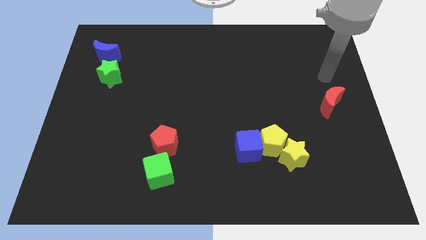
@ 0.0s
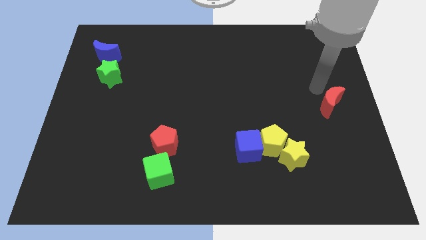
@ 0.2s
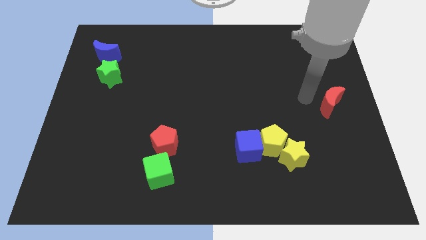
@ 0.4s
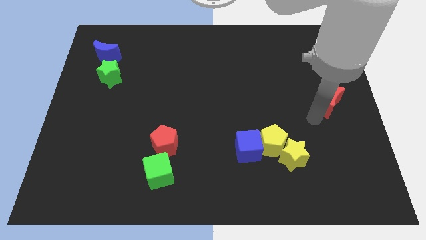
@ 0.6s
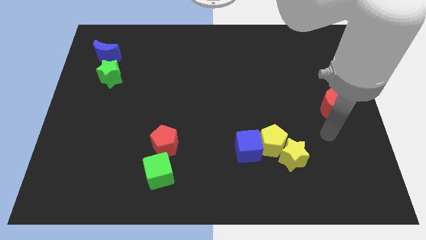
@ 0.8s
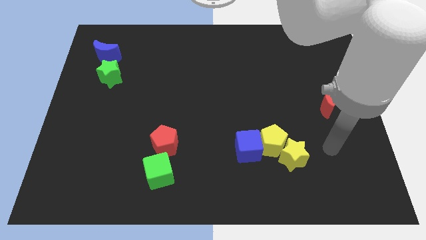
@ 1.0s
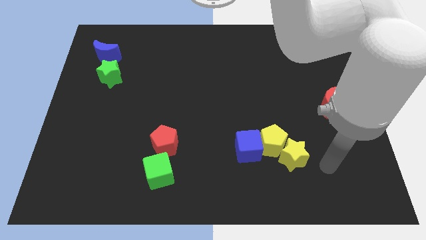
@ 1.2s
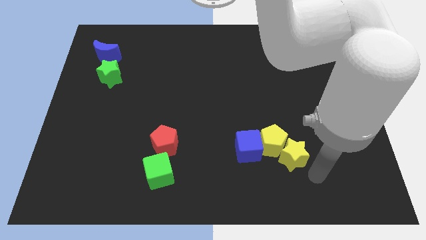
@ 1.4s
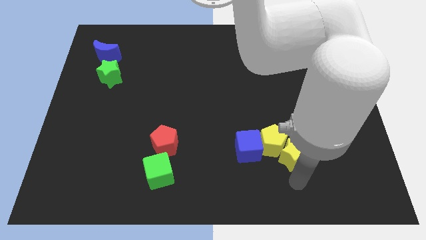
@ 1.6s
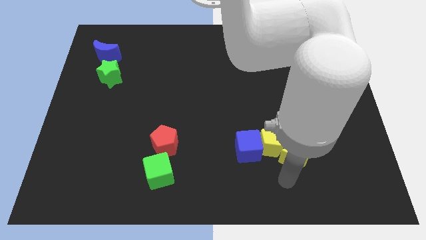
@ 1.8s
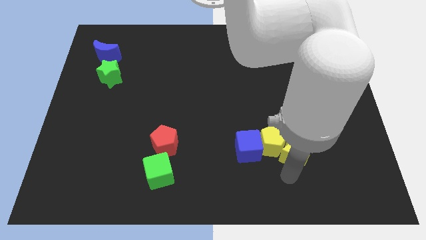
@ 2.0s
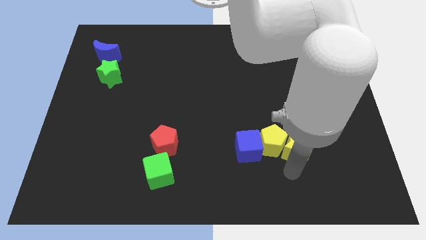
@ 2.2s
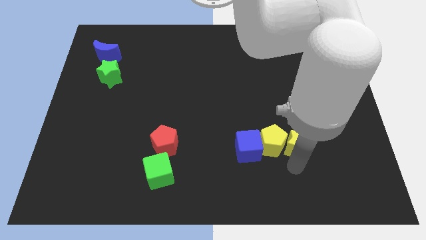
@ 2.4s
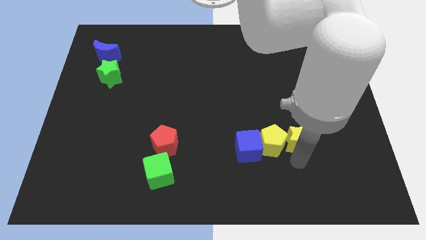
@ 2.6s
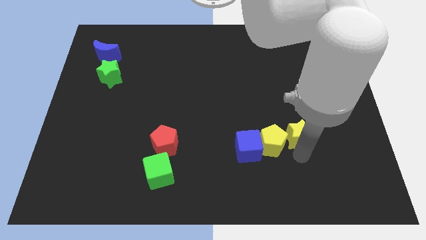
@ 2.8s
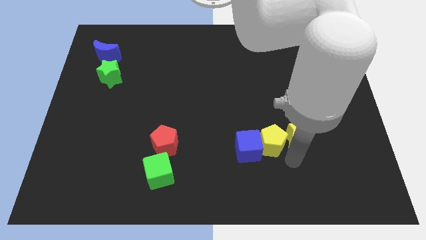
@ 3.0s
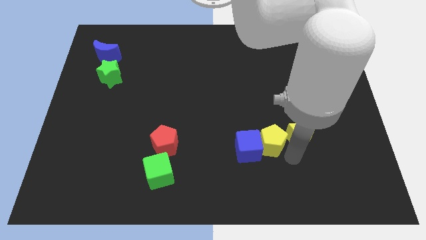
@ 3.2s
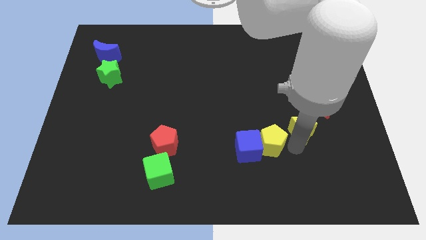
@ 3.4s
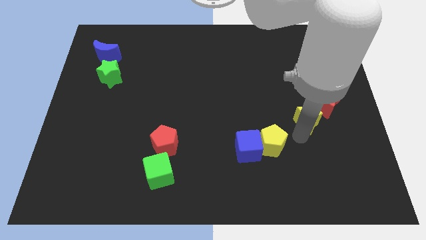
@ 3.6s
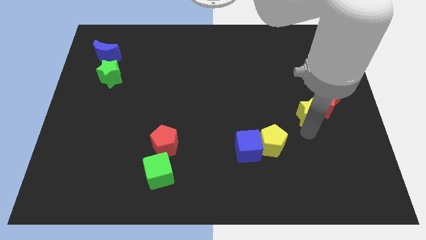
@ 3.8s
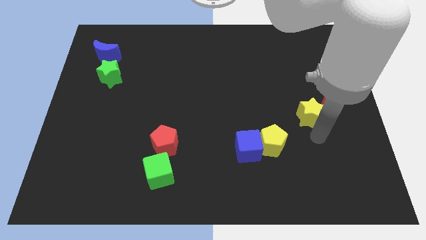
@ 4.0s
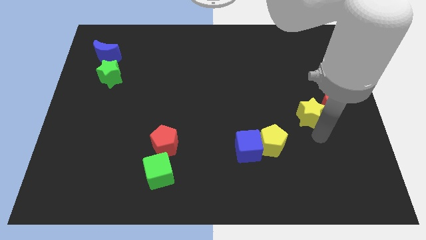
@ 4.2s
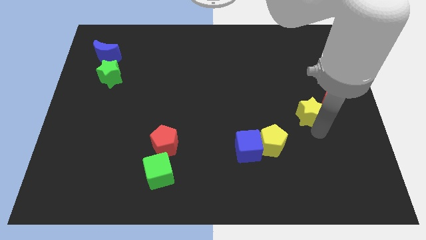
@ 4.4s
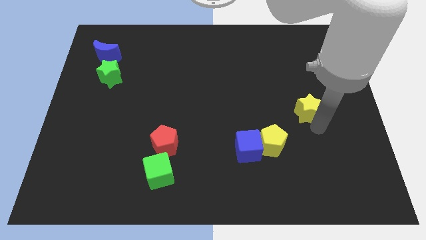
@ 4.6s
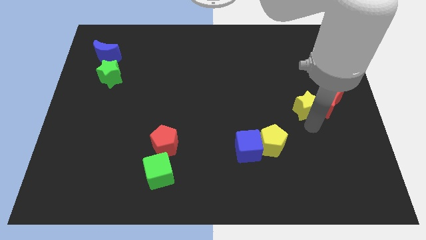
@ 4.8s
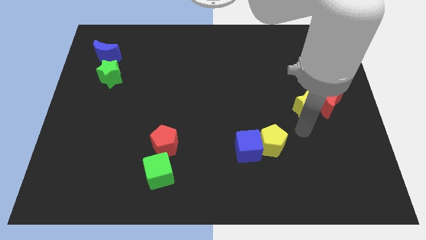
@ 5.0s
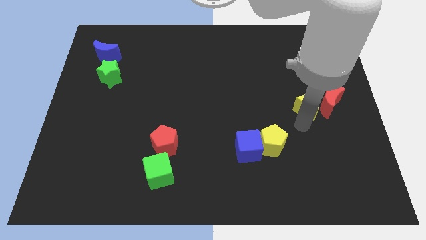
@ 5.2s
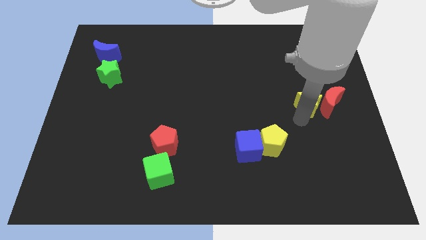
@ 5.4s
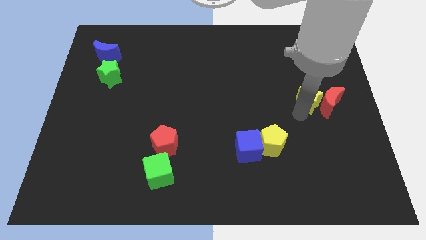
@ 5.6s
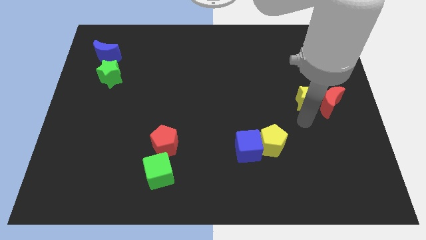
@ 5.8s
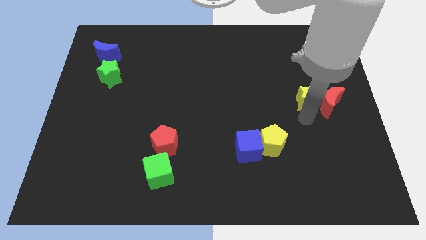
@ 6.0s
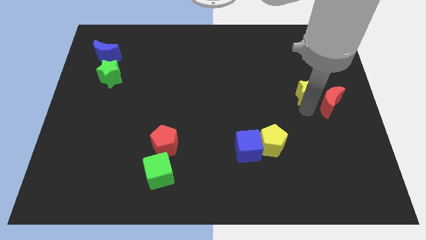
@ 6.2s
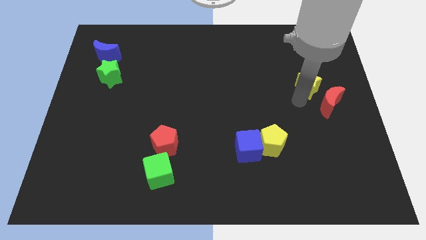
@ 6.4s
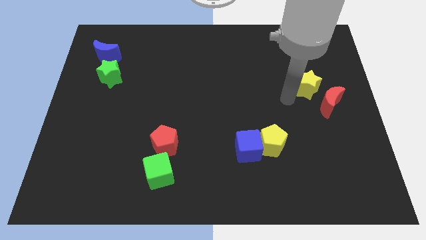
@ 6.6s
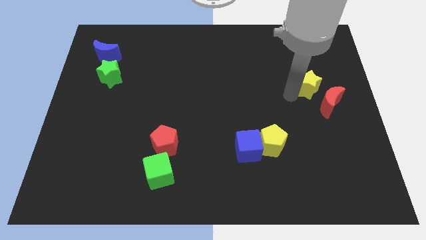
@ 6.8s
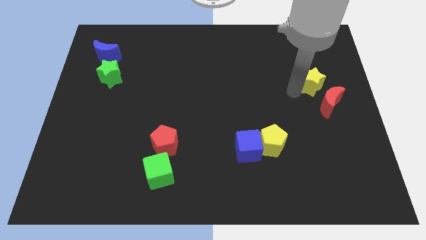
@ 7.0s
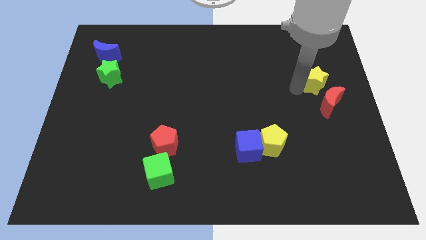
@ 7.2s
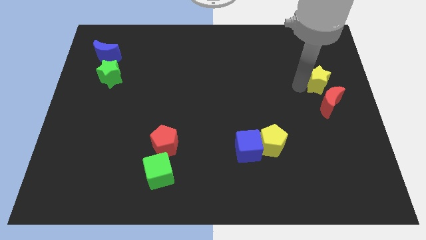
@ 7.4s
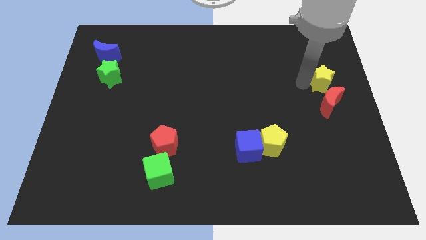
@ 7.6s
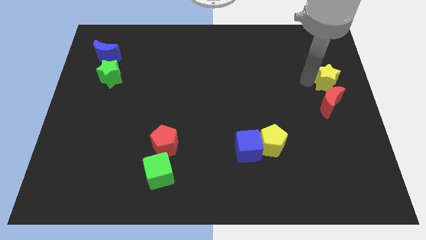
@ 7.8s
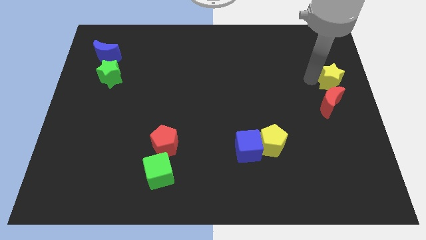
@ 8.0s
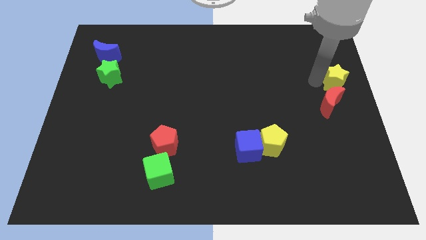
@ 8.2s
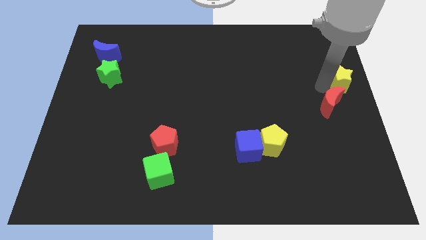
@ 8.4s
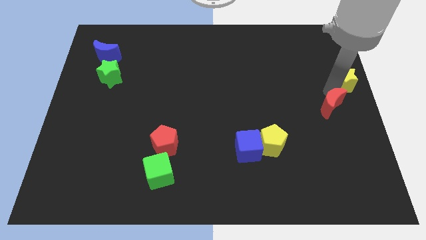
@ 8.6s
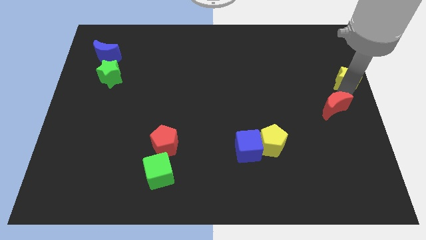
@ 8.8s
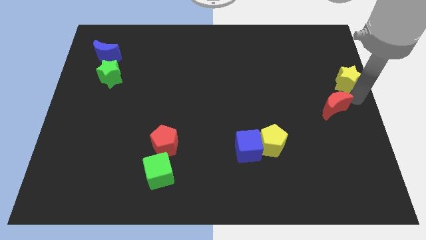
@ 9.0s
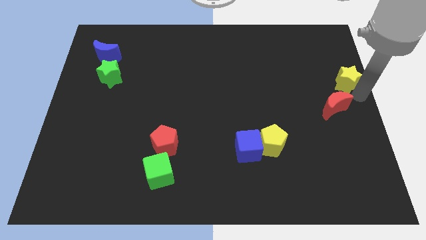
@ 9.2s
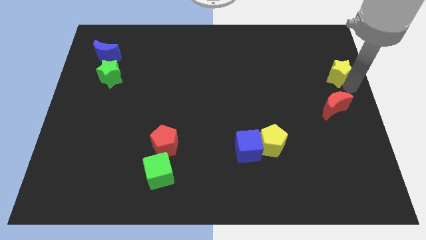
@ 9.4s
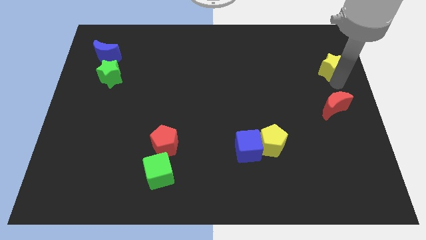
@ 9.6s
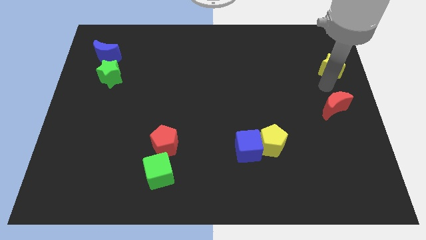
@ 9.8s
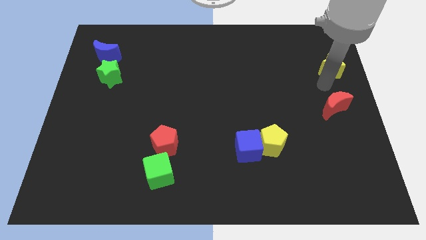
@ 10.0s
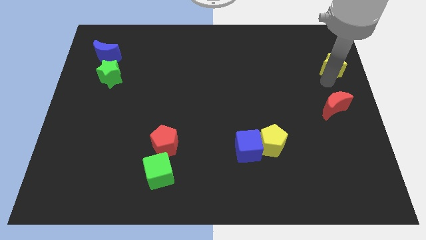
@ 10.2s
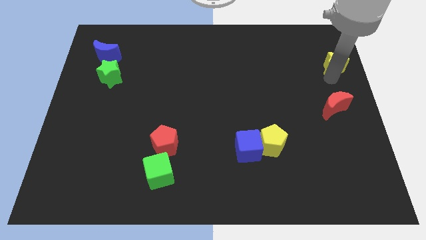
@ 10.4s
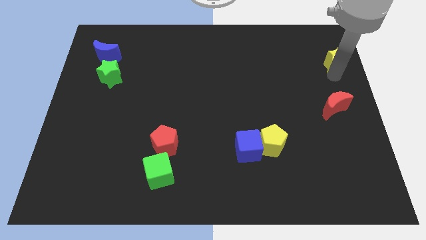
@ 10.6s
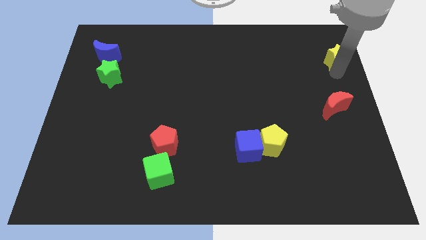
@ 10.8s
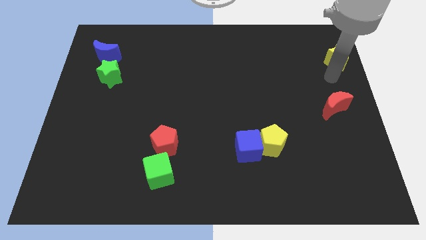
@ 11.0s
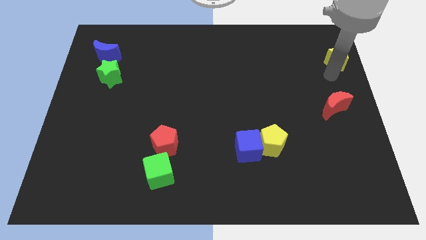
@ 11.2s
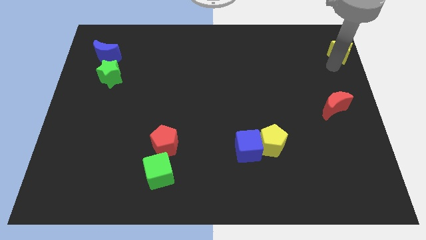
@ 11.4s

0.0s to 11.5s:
move the yellow star to the top right
